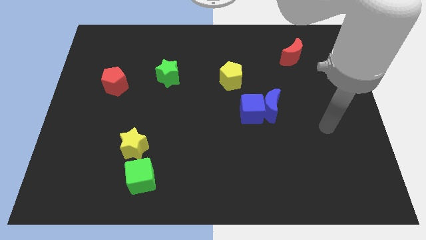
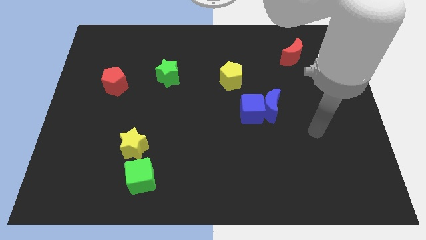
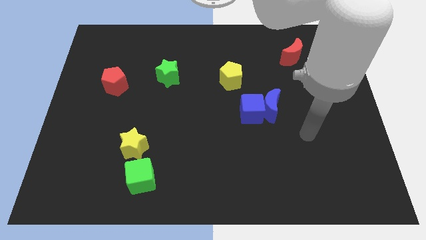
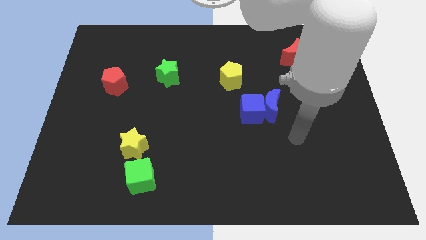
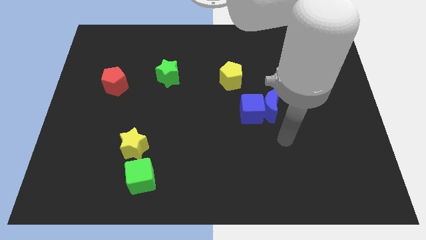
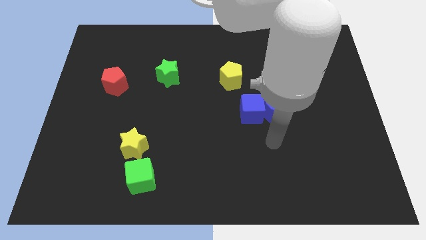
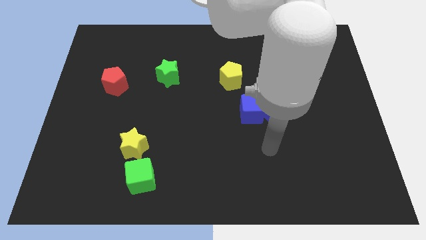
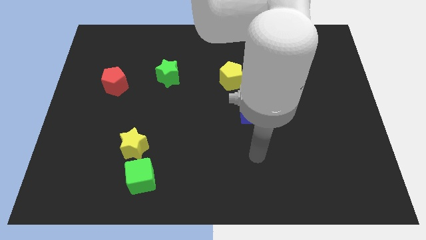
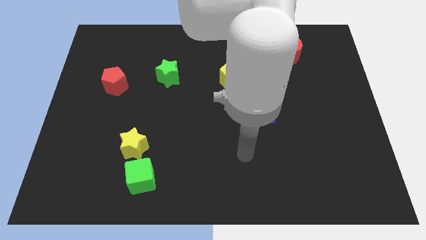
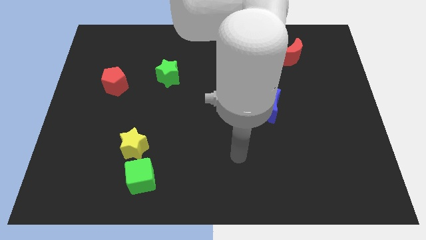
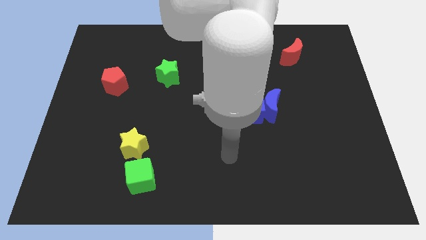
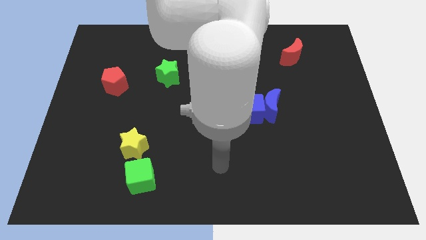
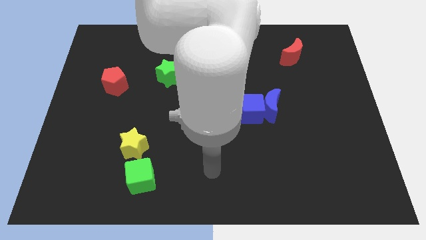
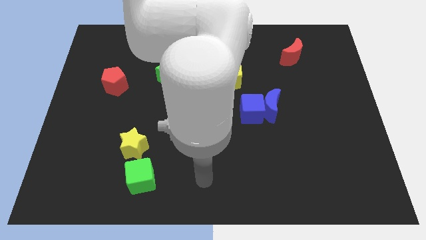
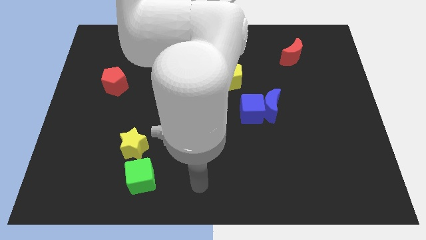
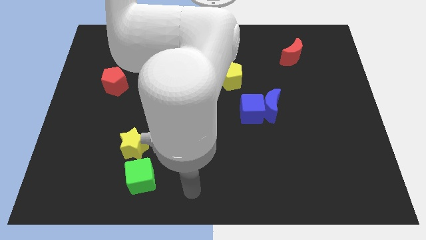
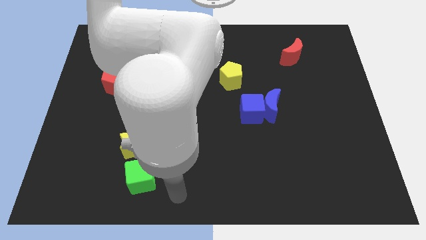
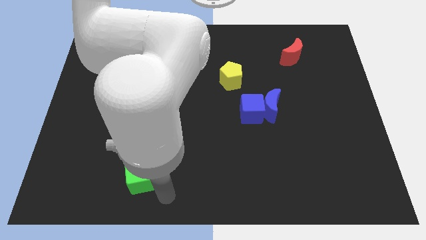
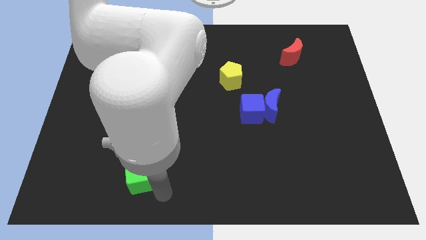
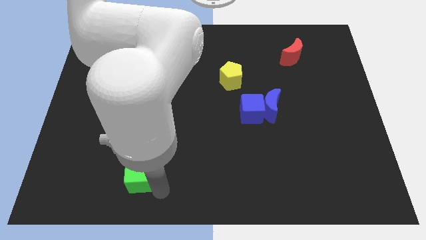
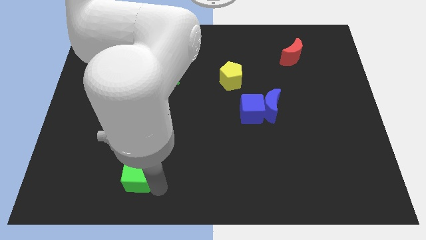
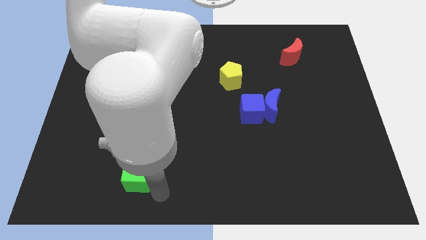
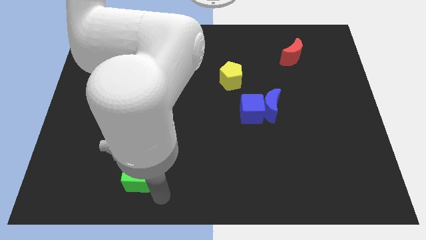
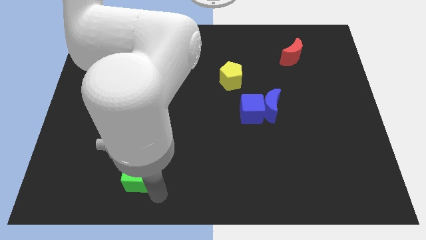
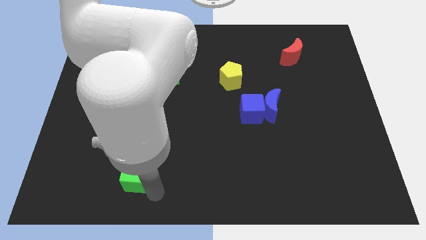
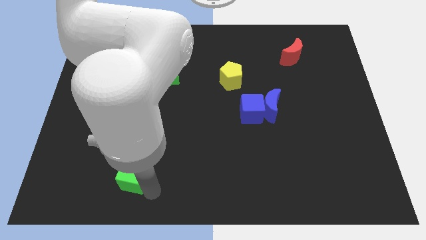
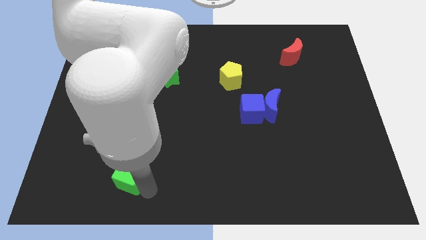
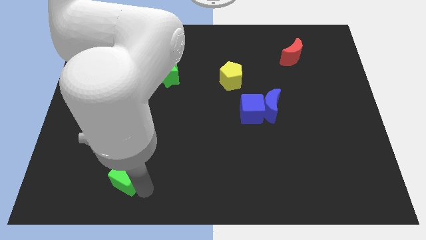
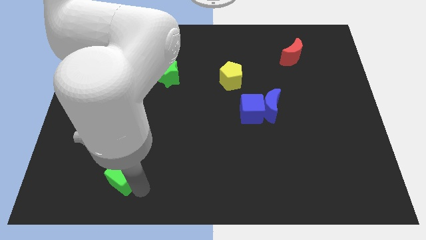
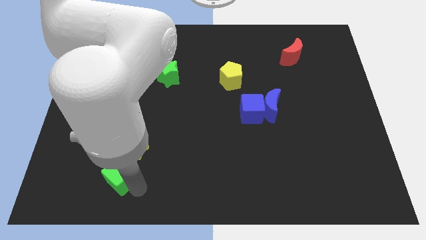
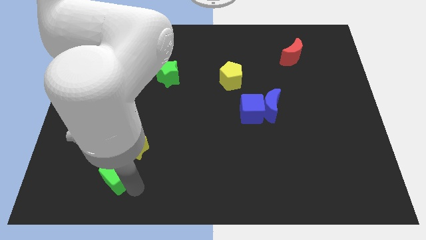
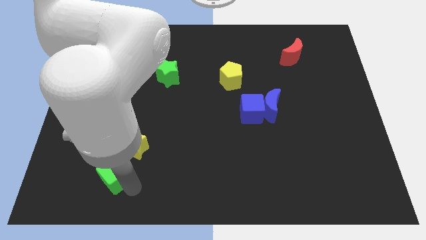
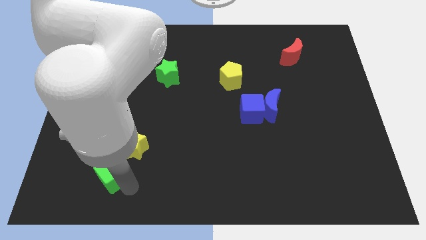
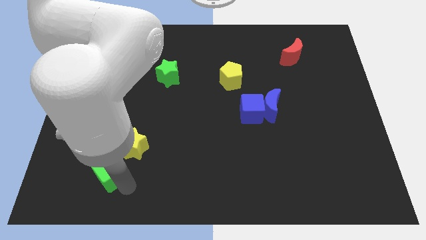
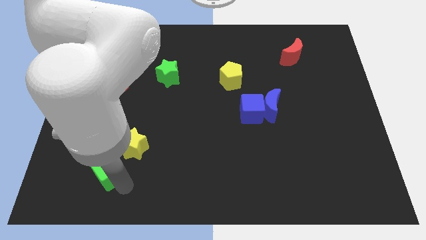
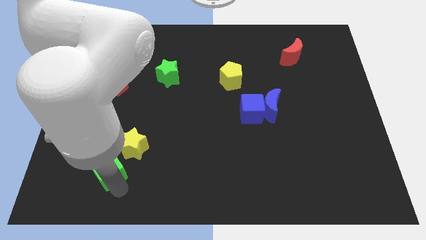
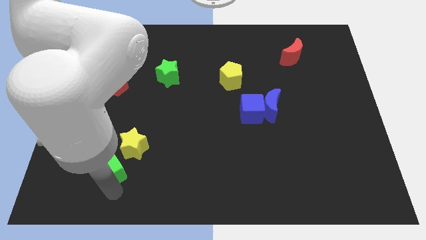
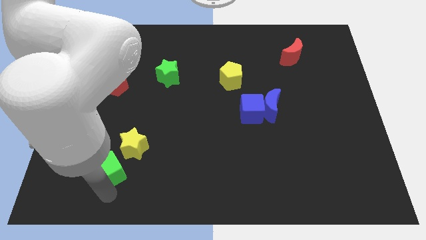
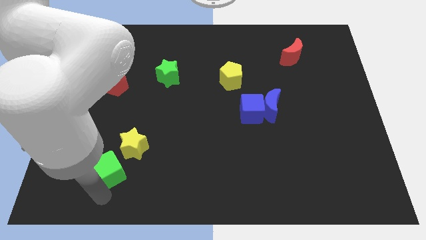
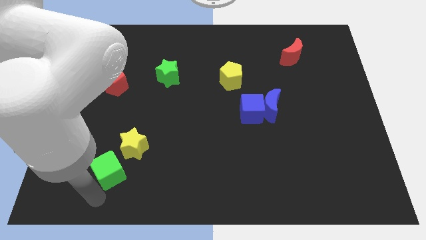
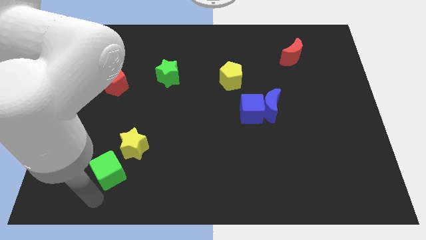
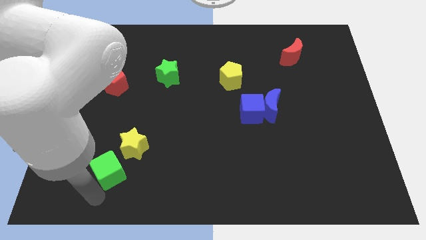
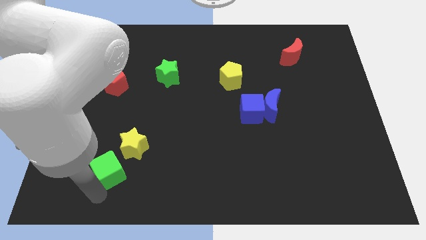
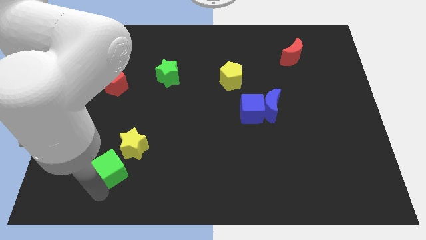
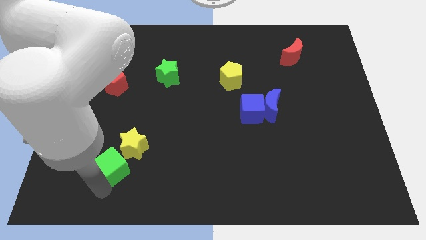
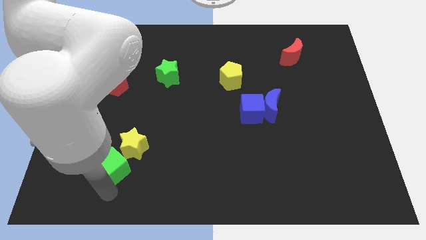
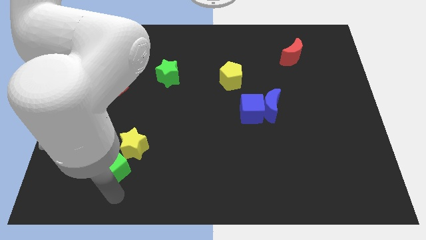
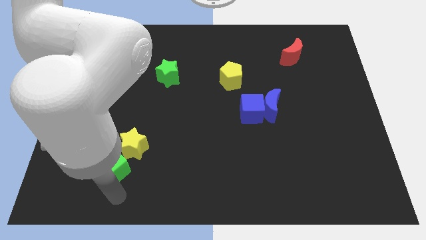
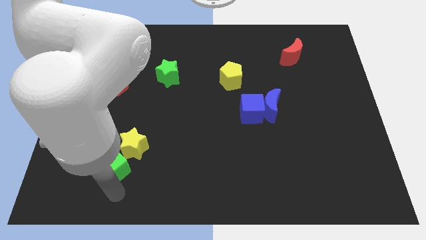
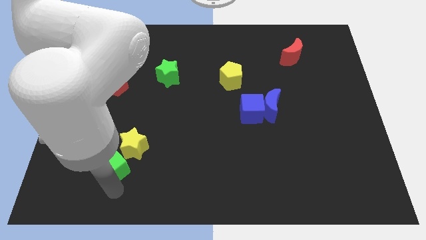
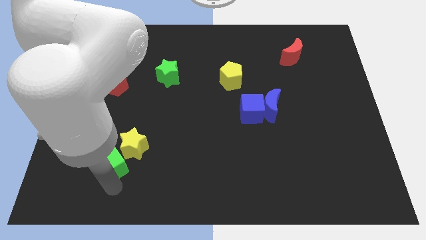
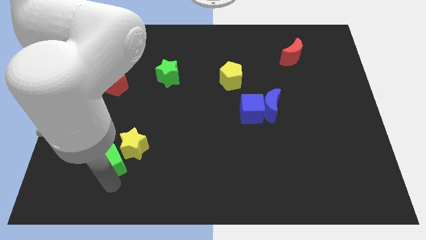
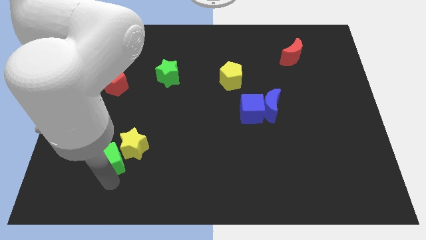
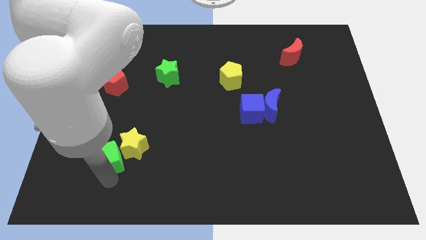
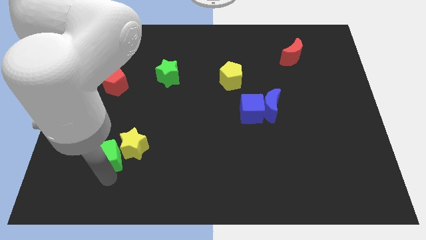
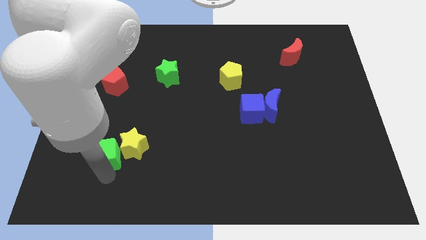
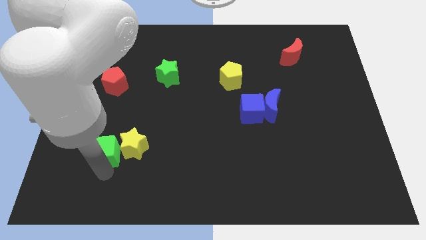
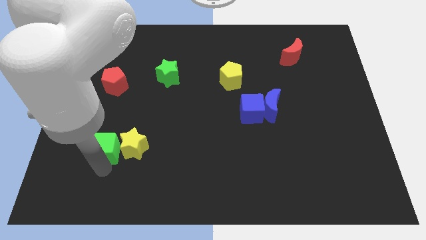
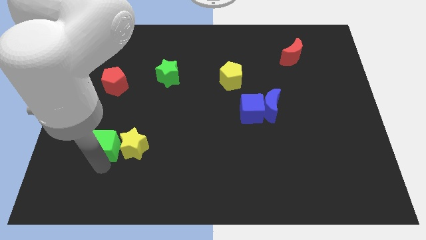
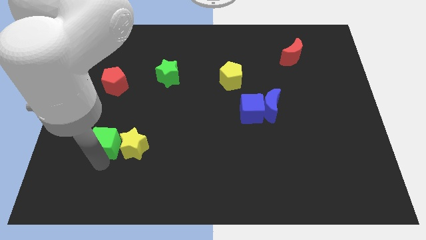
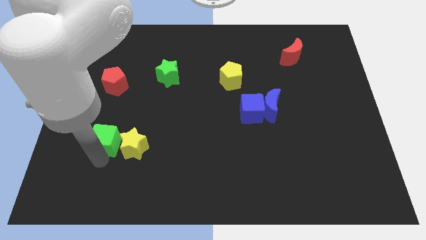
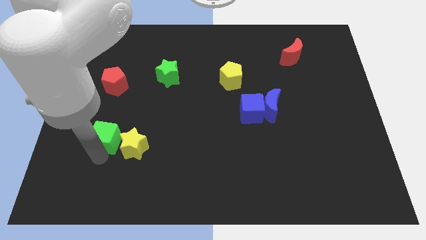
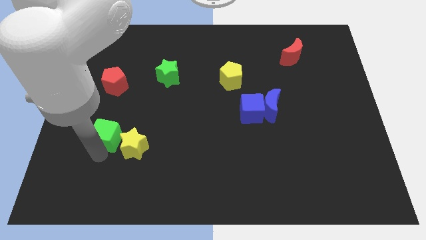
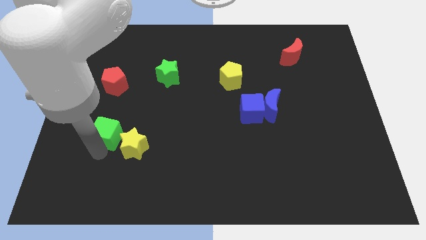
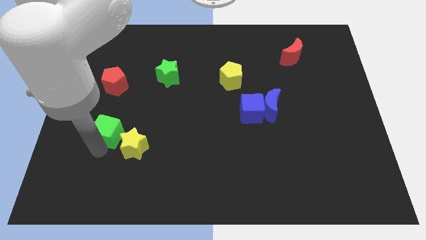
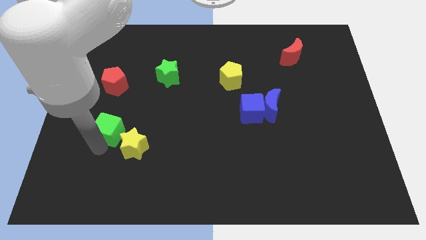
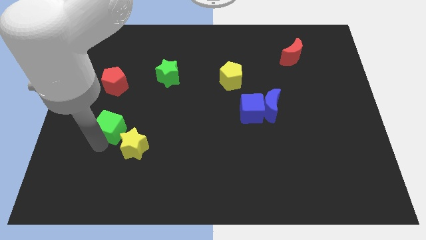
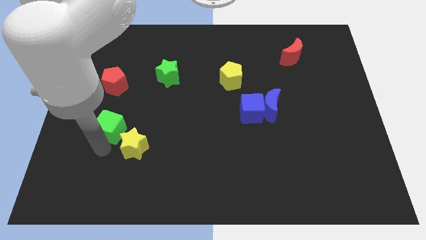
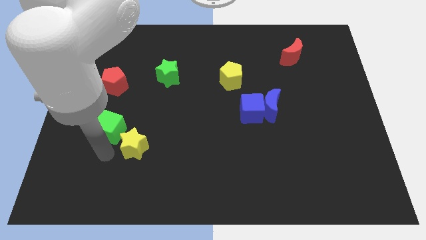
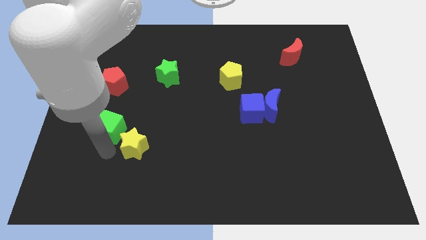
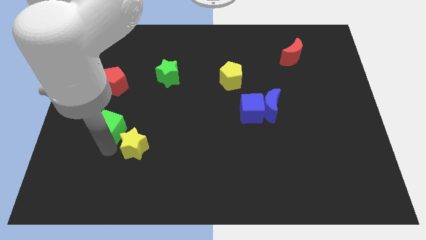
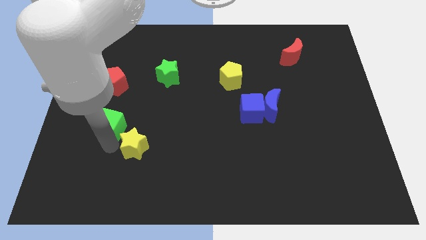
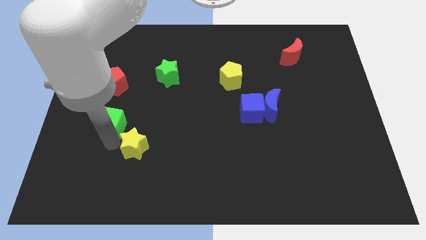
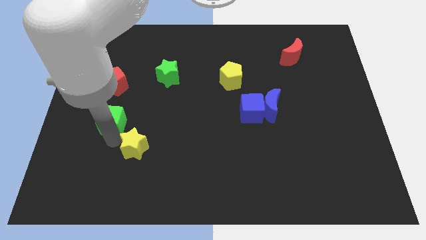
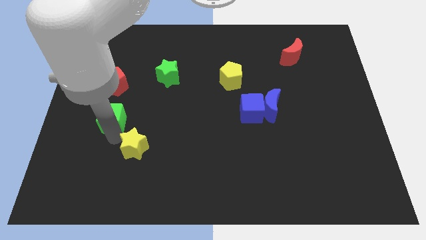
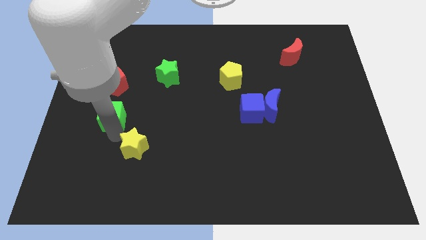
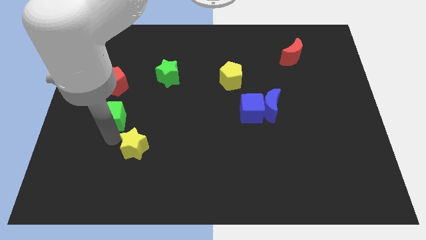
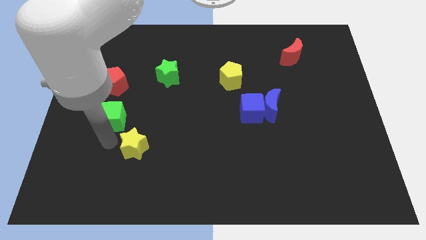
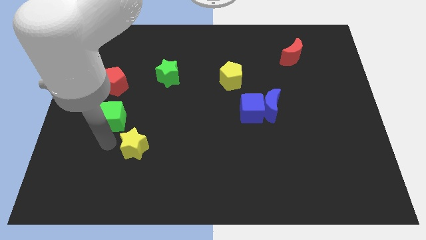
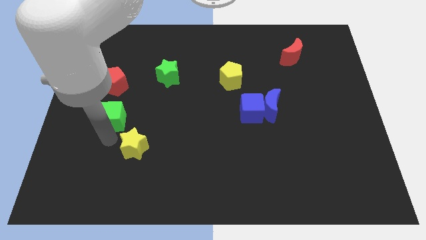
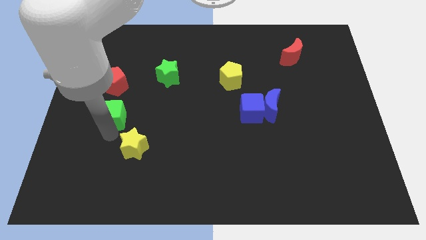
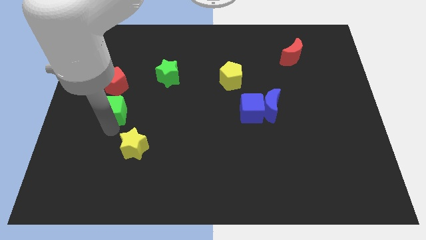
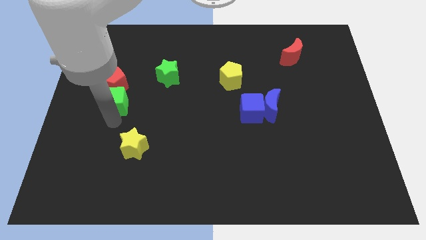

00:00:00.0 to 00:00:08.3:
move the green cube to the red pentagon
